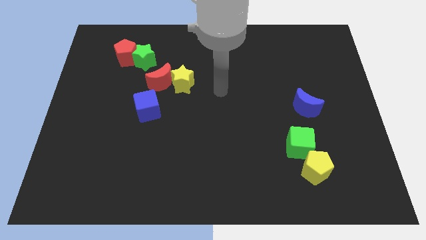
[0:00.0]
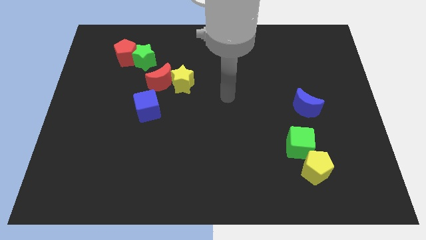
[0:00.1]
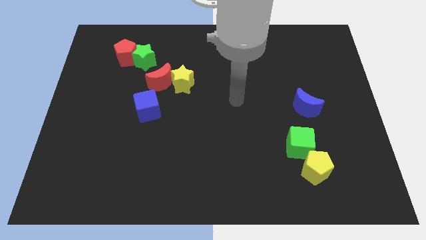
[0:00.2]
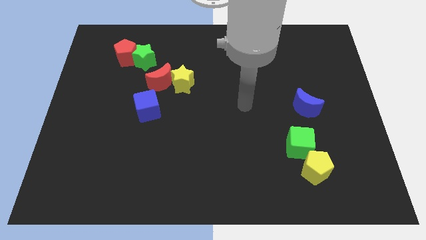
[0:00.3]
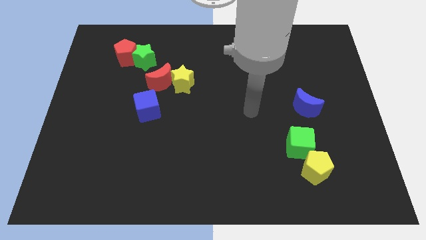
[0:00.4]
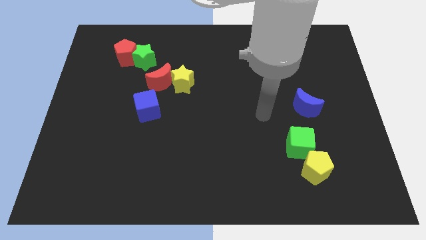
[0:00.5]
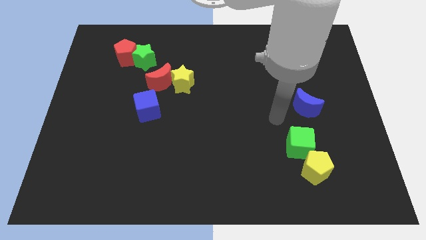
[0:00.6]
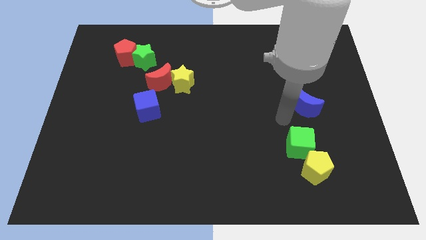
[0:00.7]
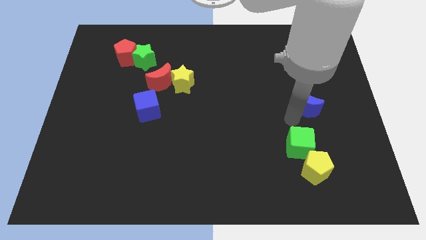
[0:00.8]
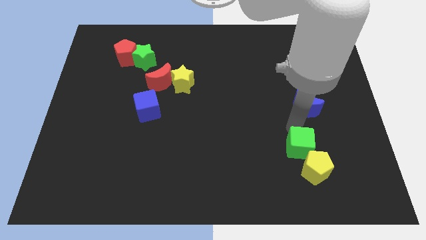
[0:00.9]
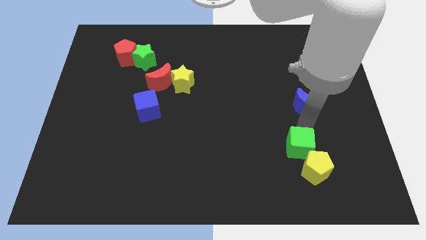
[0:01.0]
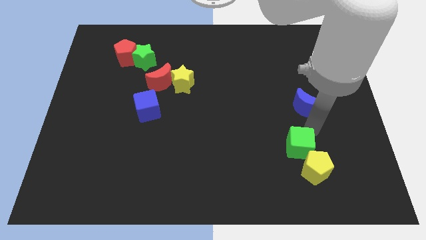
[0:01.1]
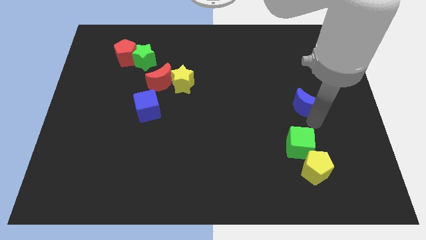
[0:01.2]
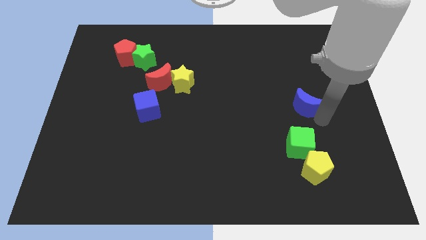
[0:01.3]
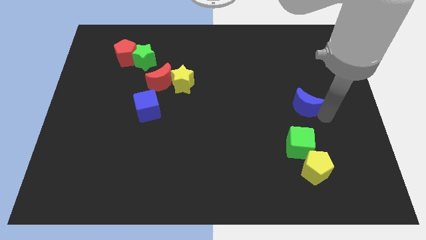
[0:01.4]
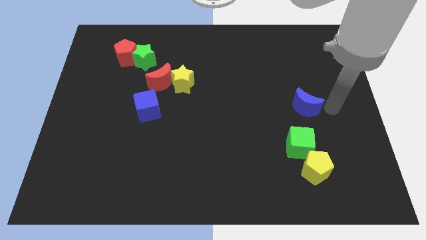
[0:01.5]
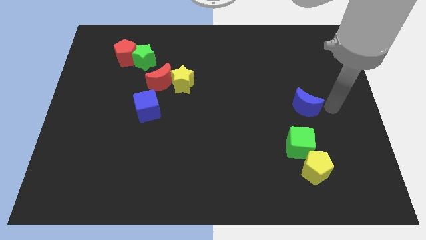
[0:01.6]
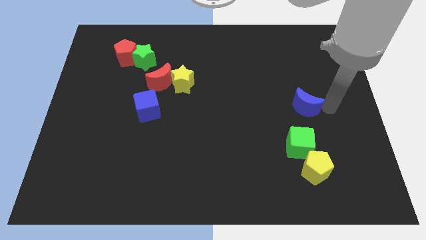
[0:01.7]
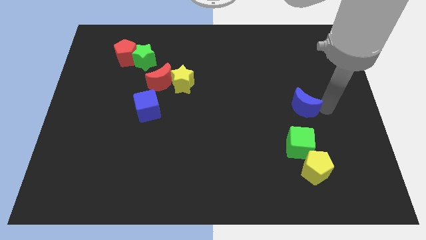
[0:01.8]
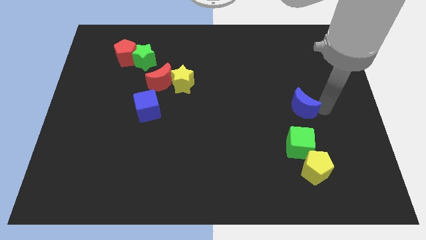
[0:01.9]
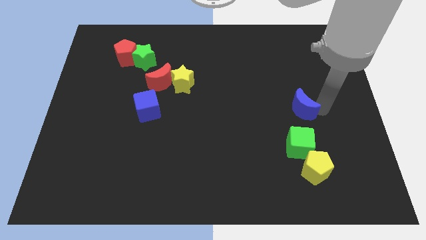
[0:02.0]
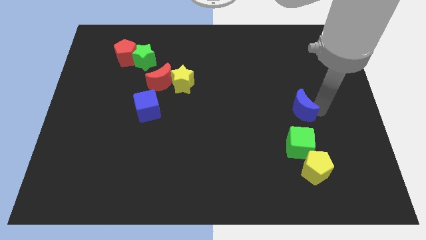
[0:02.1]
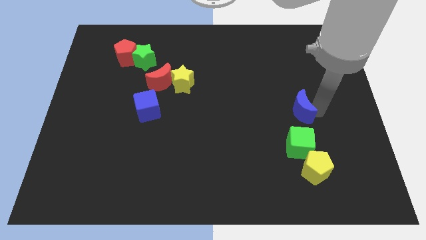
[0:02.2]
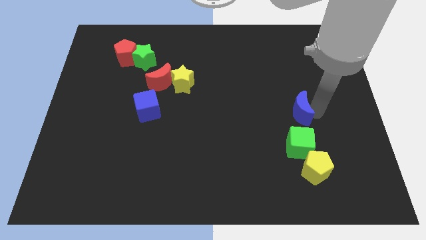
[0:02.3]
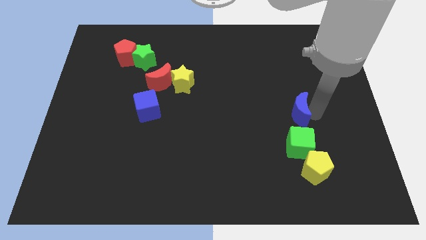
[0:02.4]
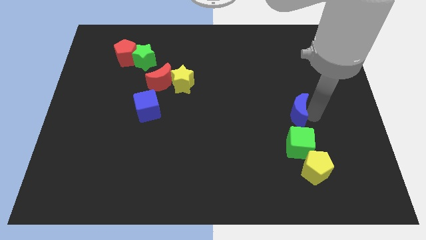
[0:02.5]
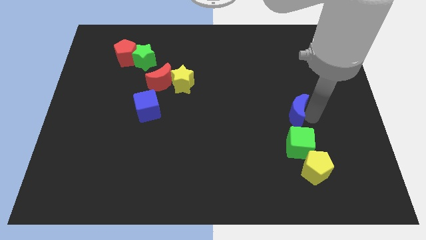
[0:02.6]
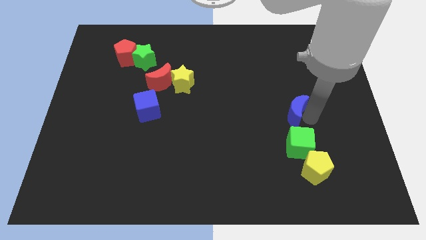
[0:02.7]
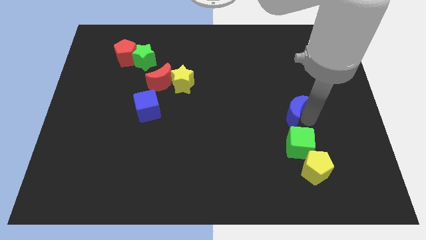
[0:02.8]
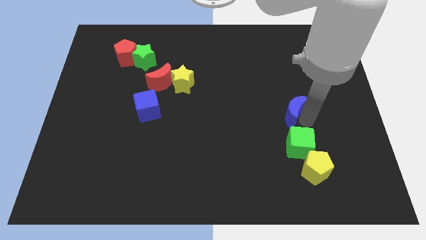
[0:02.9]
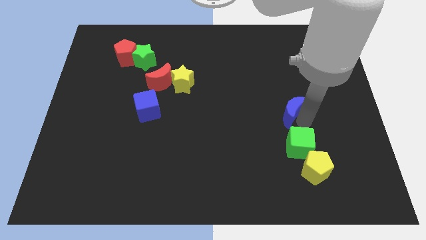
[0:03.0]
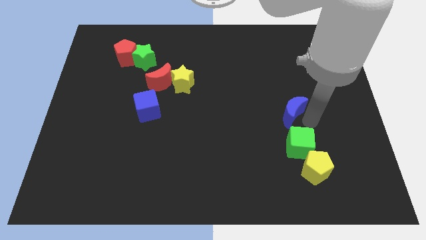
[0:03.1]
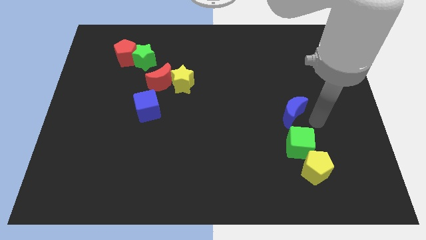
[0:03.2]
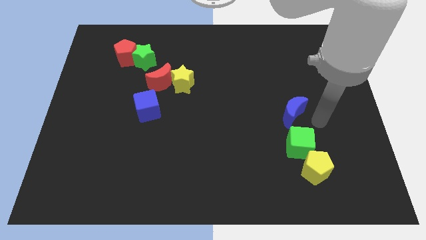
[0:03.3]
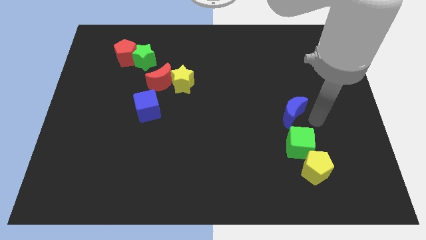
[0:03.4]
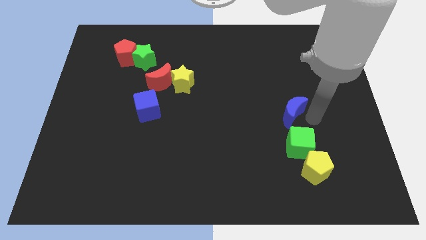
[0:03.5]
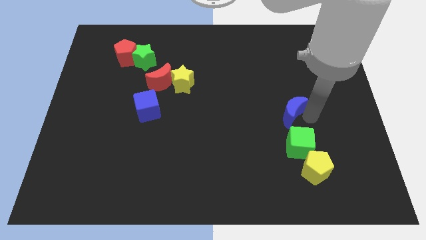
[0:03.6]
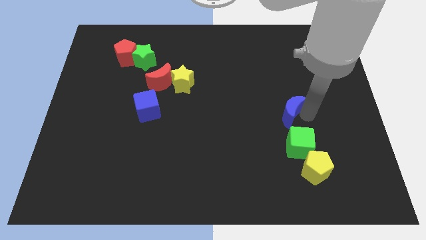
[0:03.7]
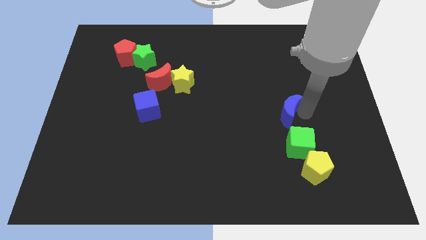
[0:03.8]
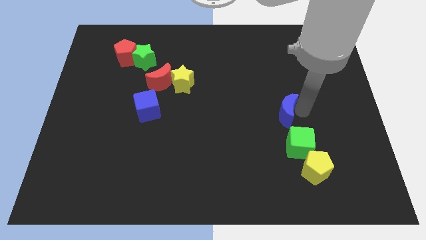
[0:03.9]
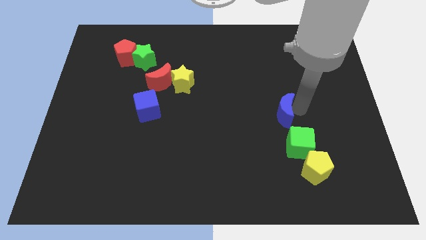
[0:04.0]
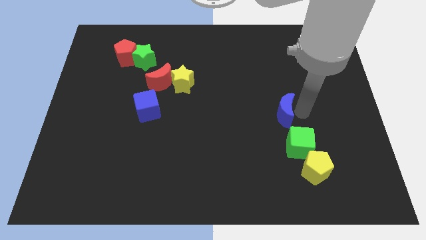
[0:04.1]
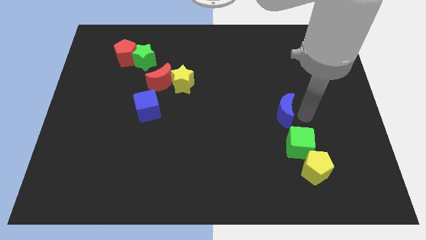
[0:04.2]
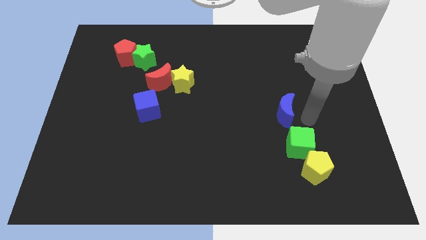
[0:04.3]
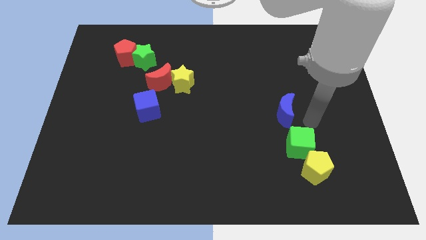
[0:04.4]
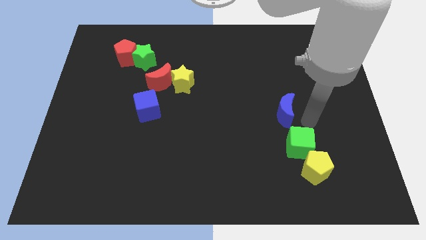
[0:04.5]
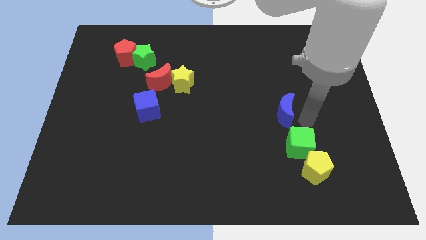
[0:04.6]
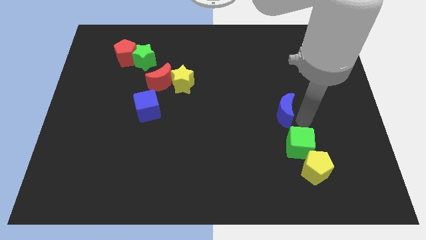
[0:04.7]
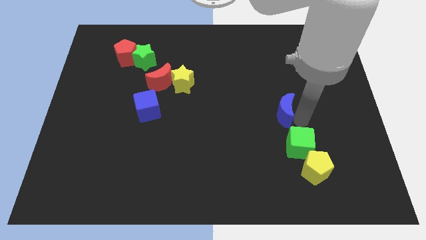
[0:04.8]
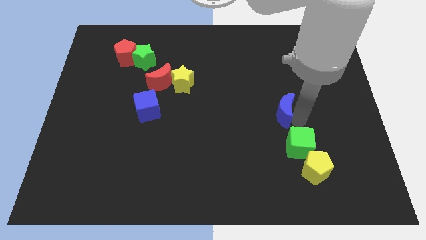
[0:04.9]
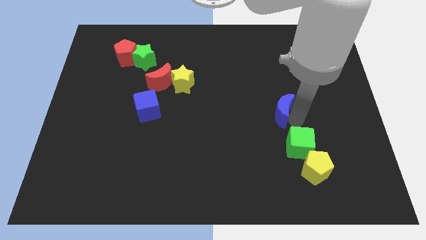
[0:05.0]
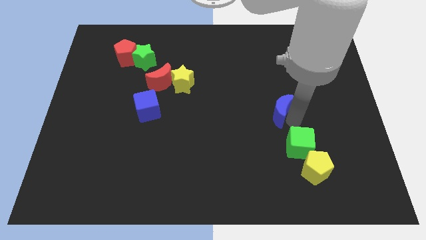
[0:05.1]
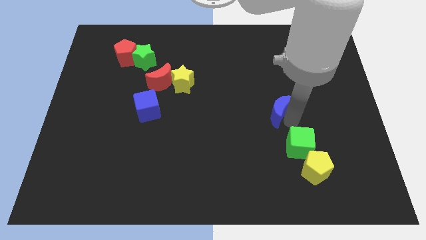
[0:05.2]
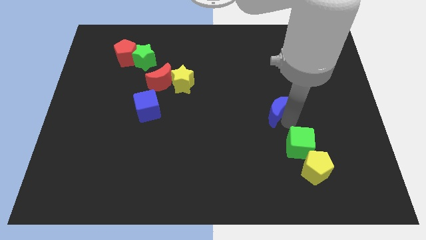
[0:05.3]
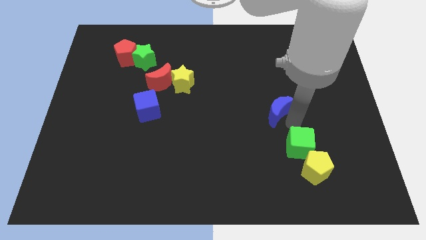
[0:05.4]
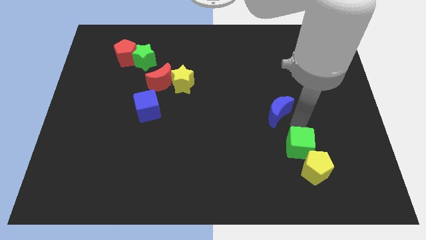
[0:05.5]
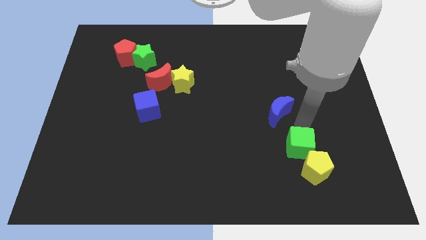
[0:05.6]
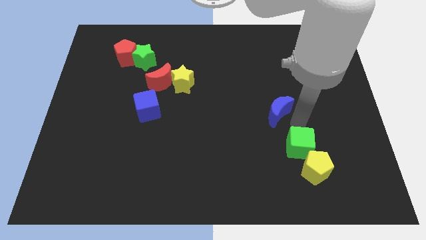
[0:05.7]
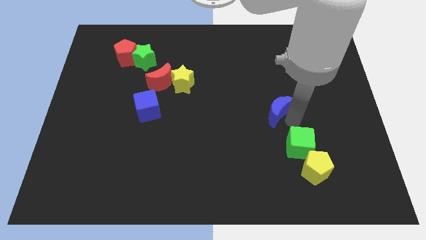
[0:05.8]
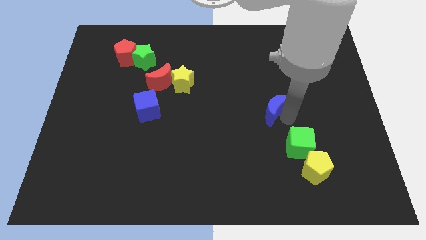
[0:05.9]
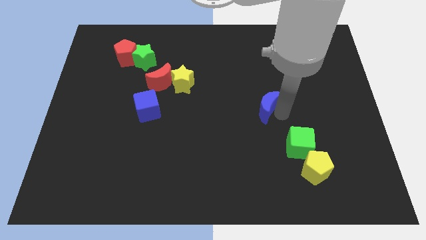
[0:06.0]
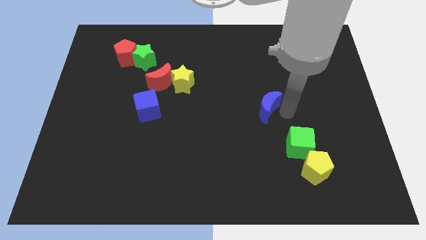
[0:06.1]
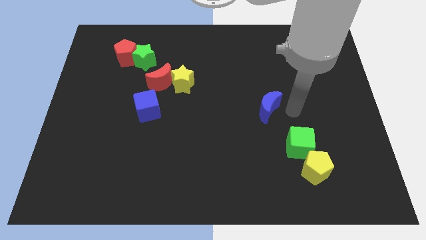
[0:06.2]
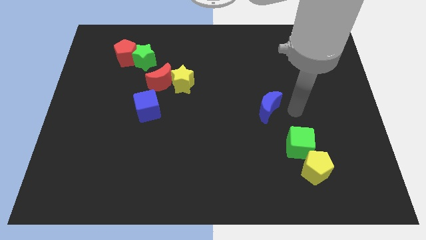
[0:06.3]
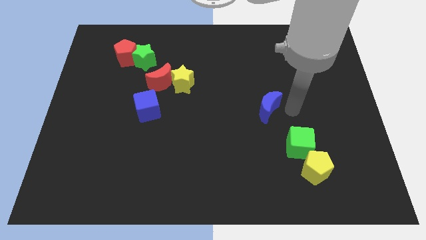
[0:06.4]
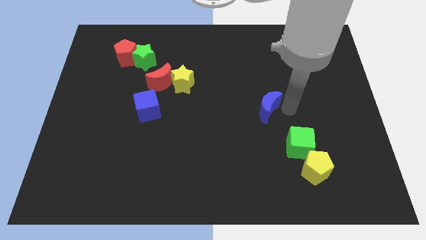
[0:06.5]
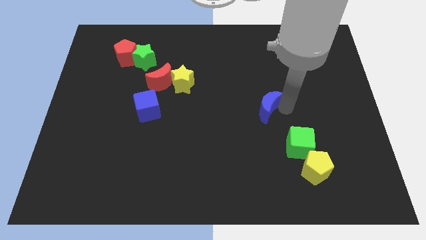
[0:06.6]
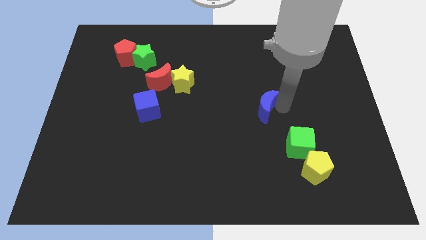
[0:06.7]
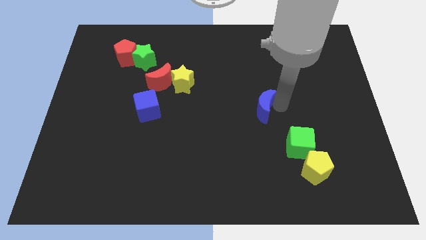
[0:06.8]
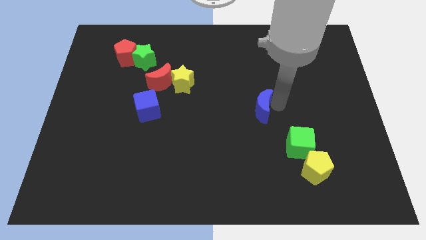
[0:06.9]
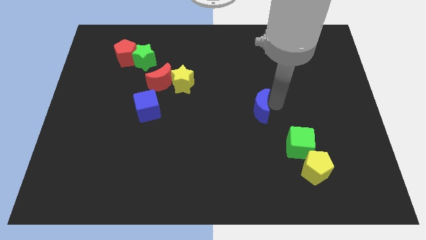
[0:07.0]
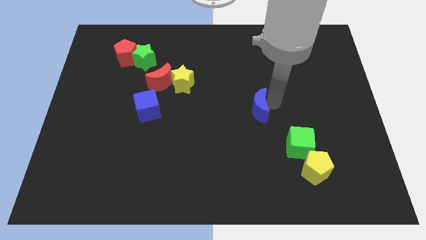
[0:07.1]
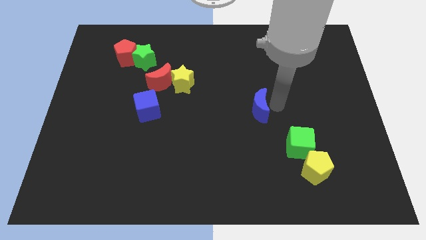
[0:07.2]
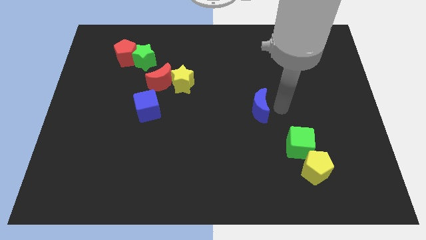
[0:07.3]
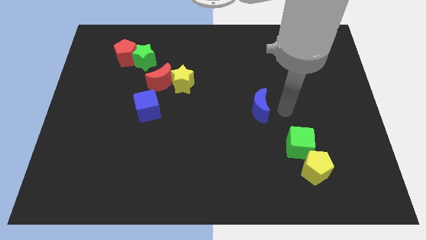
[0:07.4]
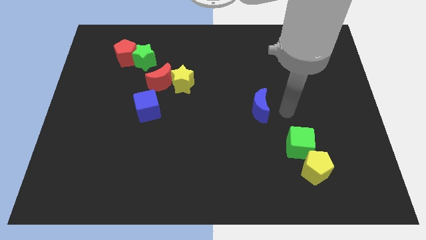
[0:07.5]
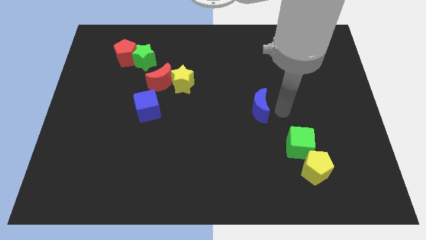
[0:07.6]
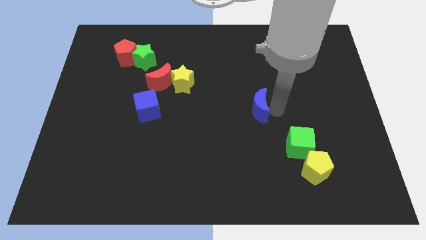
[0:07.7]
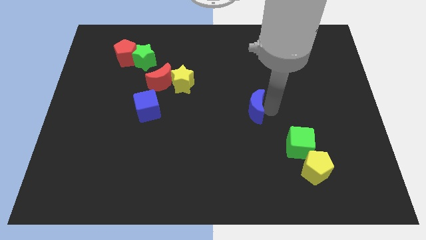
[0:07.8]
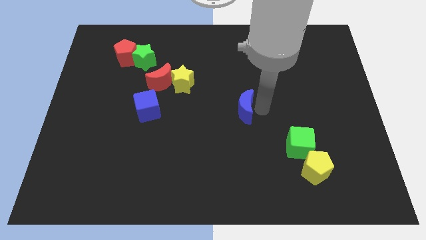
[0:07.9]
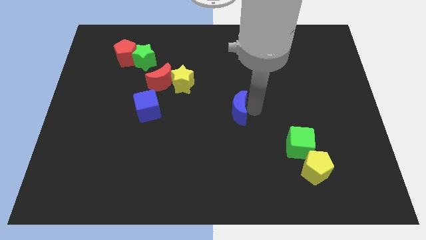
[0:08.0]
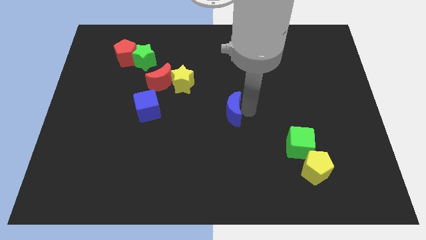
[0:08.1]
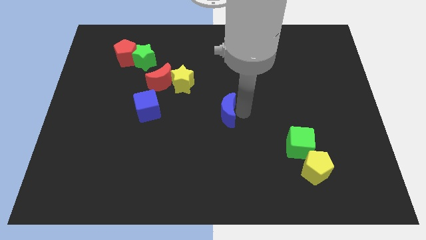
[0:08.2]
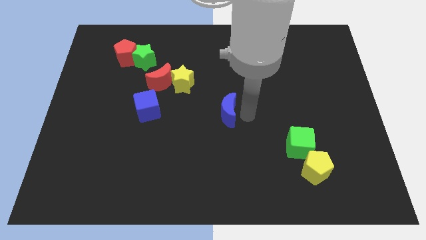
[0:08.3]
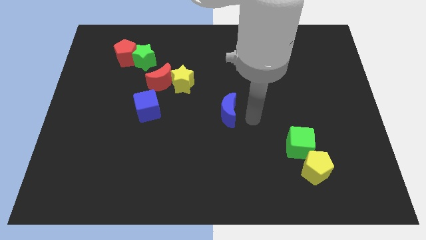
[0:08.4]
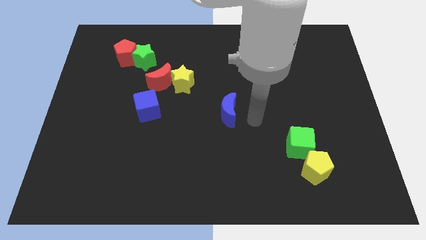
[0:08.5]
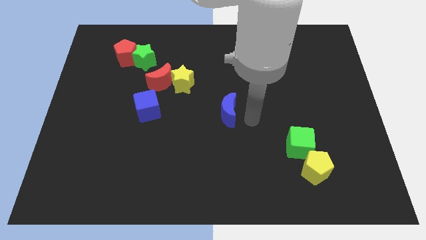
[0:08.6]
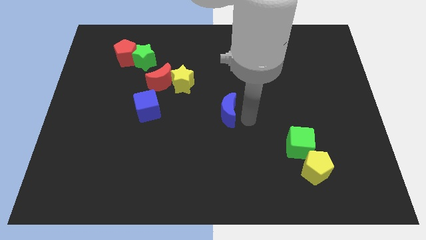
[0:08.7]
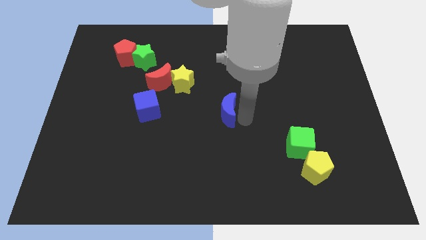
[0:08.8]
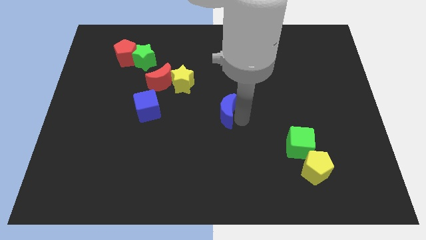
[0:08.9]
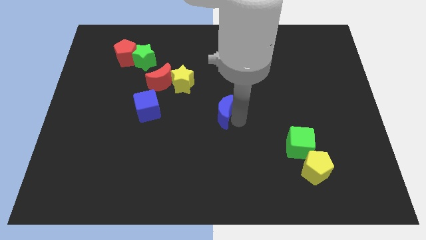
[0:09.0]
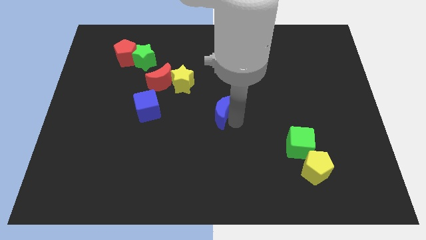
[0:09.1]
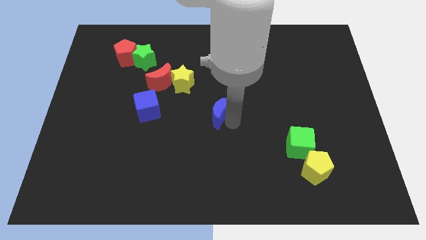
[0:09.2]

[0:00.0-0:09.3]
move the blue moon left
